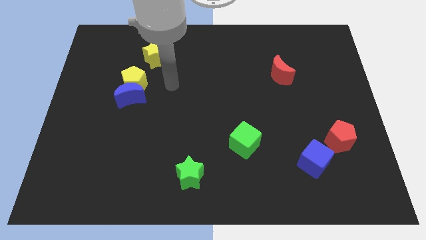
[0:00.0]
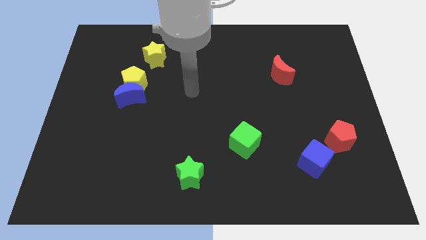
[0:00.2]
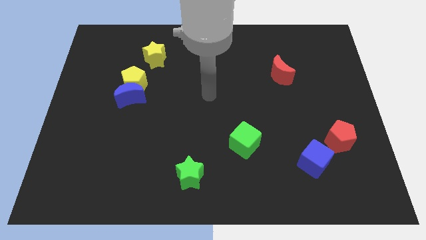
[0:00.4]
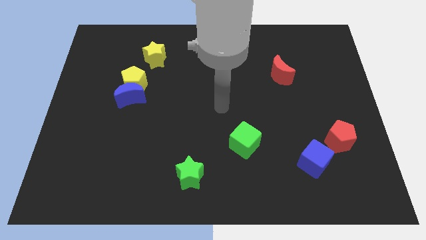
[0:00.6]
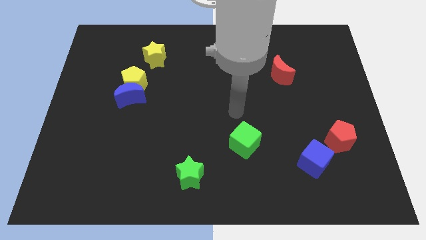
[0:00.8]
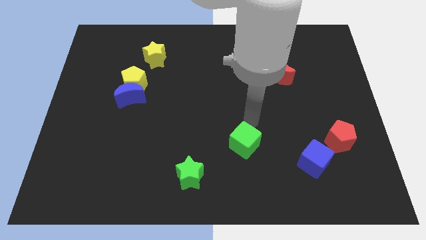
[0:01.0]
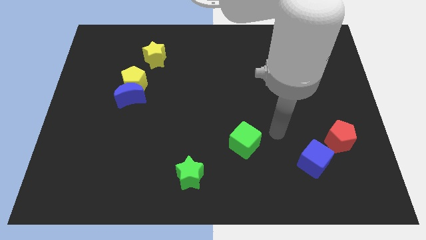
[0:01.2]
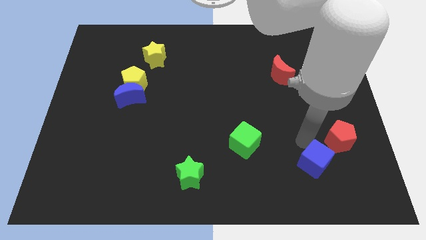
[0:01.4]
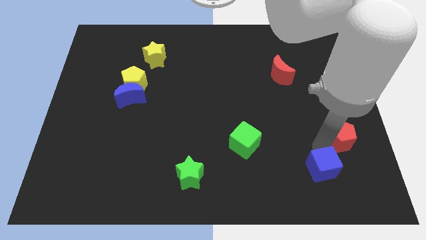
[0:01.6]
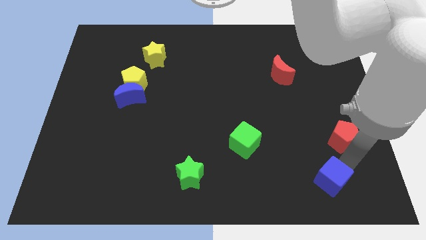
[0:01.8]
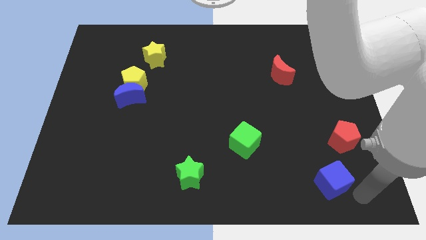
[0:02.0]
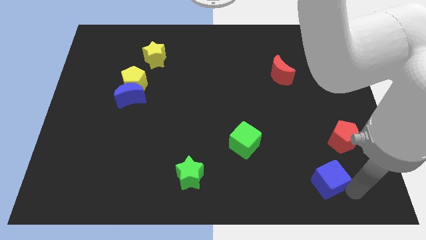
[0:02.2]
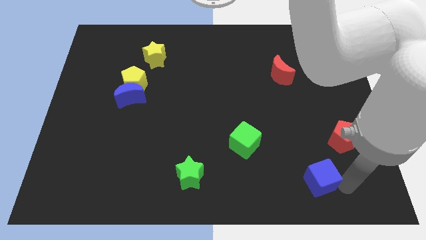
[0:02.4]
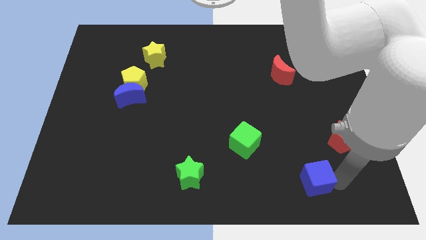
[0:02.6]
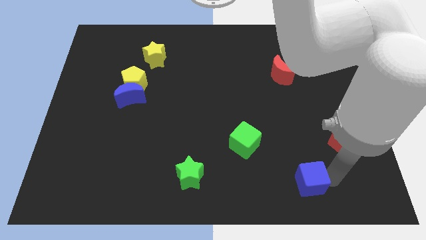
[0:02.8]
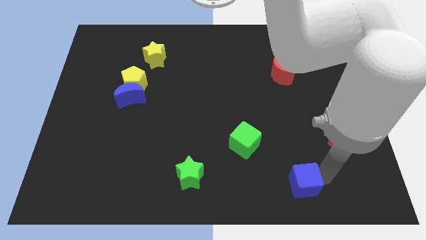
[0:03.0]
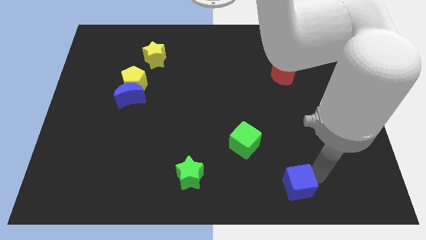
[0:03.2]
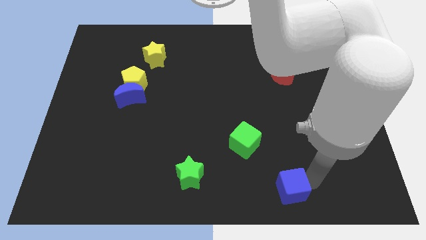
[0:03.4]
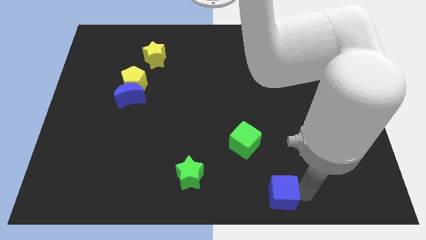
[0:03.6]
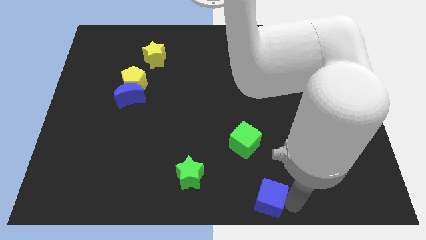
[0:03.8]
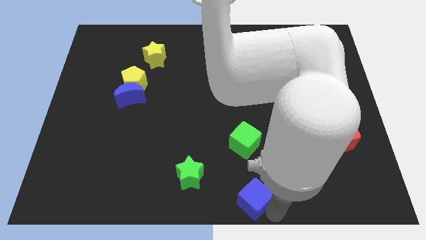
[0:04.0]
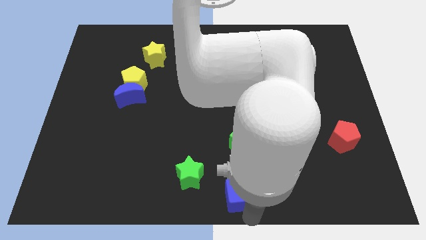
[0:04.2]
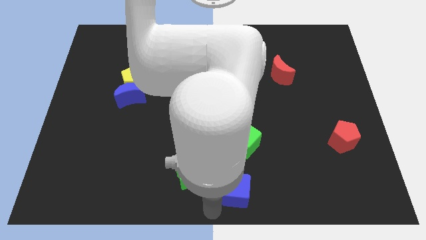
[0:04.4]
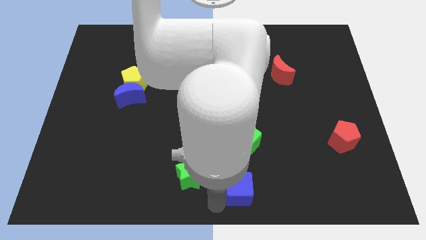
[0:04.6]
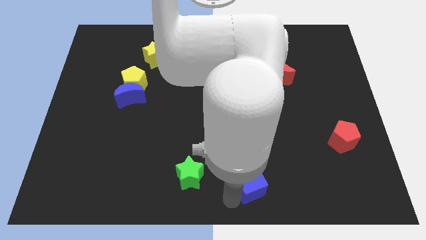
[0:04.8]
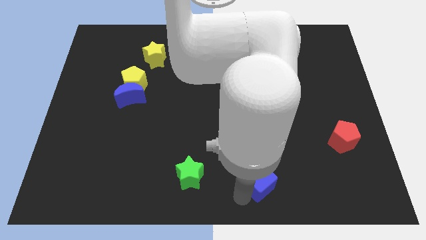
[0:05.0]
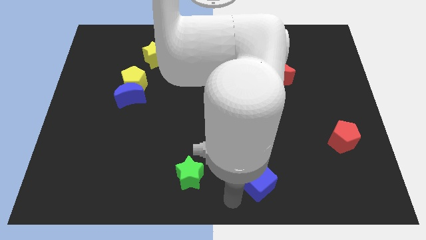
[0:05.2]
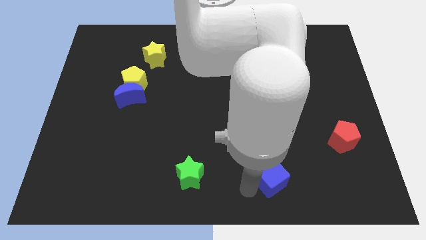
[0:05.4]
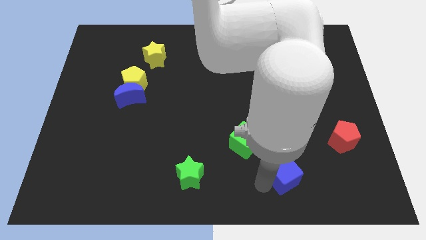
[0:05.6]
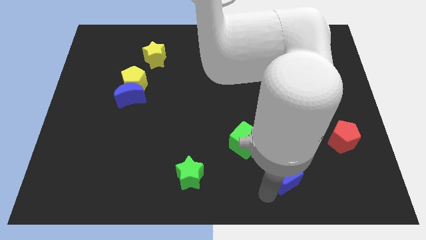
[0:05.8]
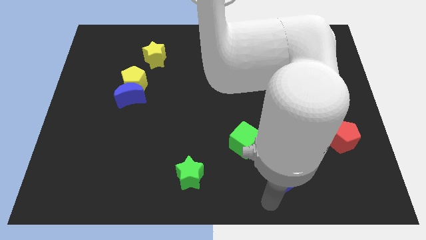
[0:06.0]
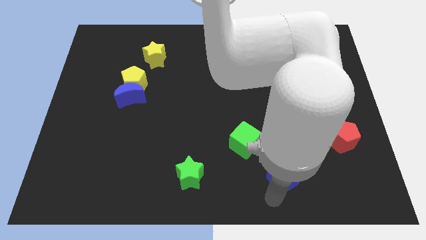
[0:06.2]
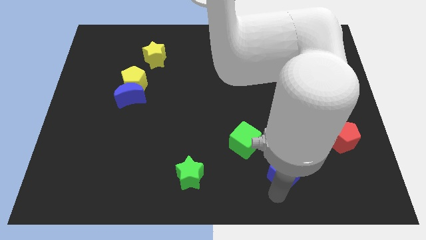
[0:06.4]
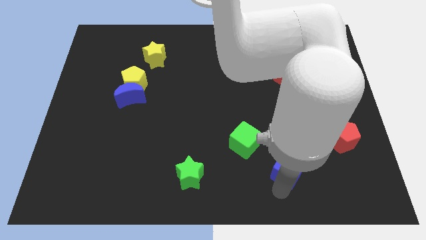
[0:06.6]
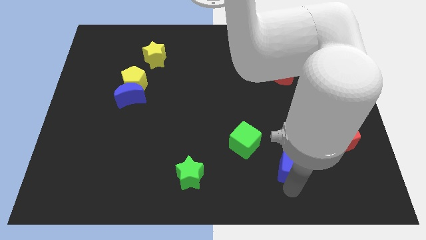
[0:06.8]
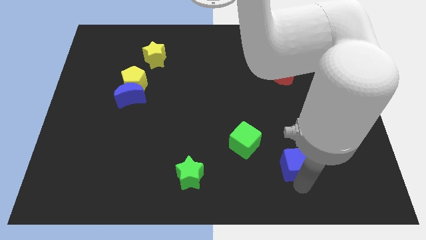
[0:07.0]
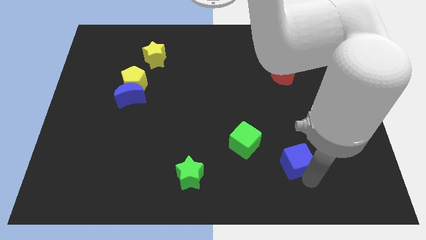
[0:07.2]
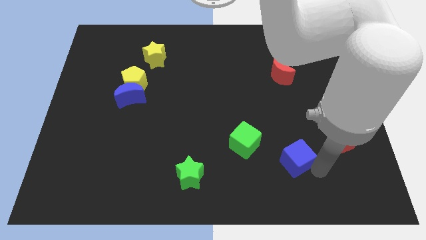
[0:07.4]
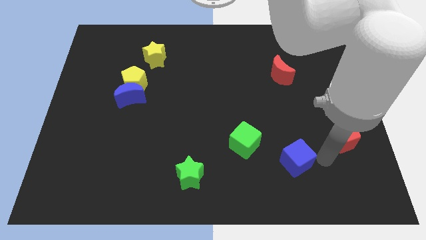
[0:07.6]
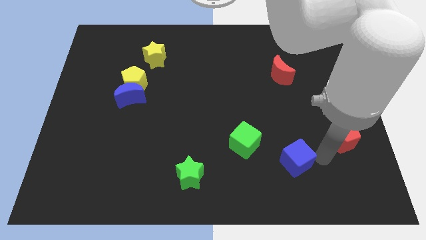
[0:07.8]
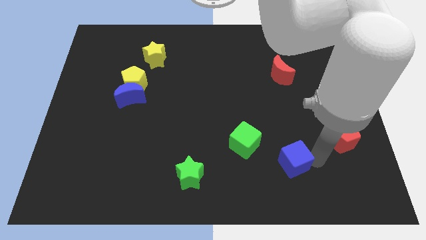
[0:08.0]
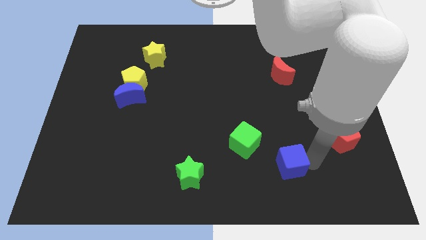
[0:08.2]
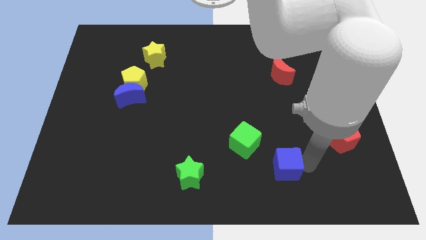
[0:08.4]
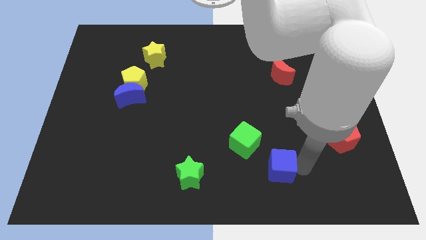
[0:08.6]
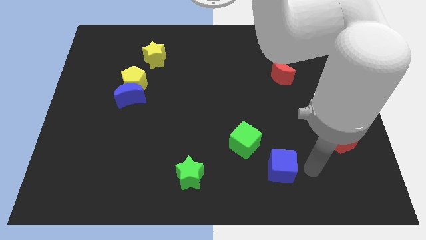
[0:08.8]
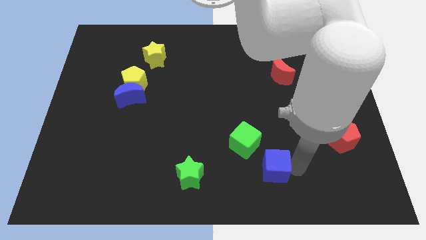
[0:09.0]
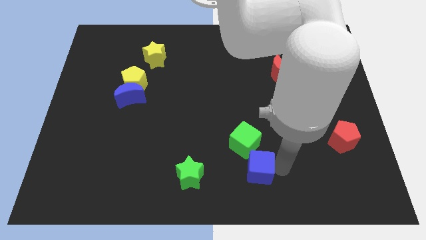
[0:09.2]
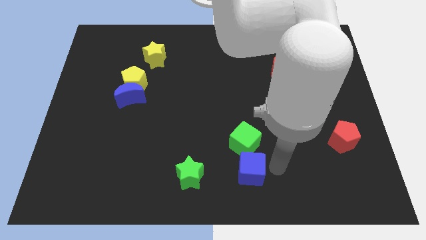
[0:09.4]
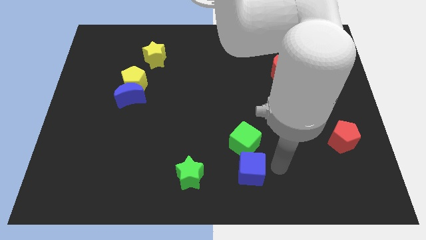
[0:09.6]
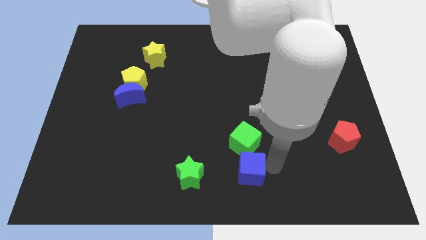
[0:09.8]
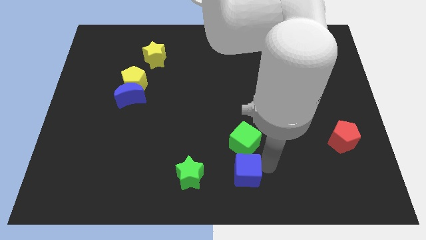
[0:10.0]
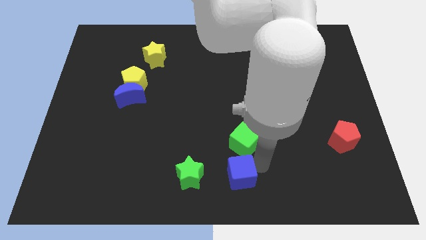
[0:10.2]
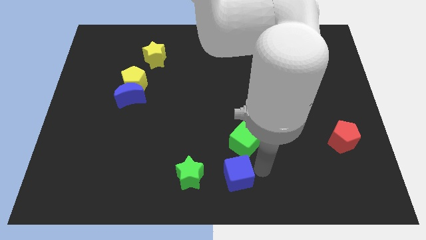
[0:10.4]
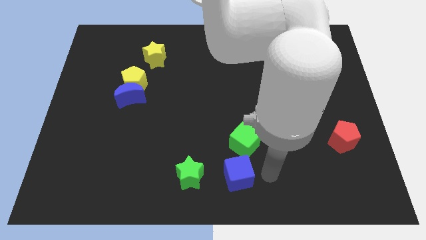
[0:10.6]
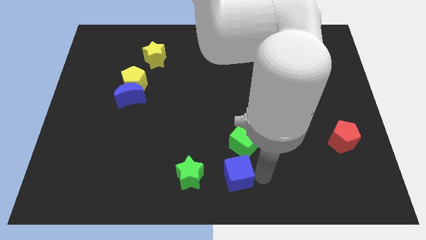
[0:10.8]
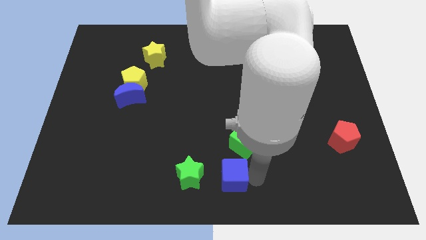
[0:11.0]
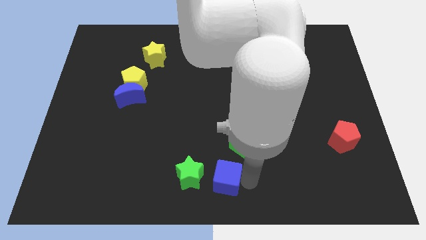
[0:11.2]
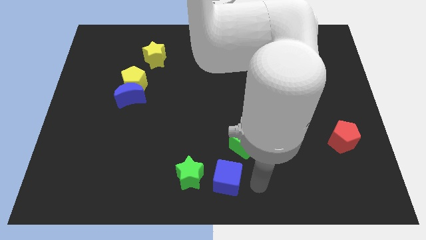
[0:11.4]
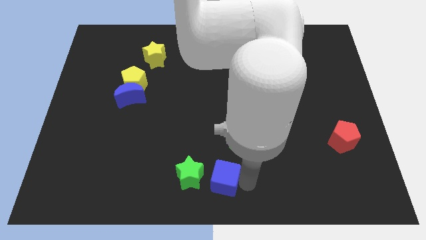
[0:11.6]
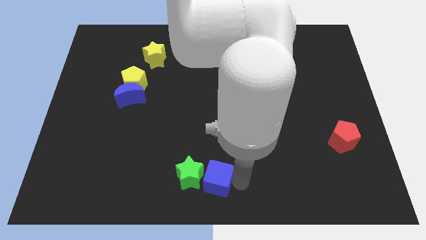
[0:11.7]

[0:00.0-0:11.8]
slide the blue cube towards the green star

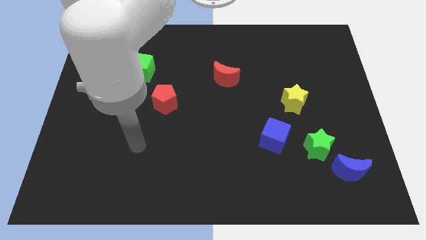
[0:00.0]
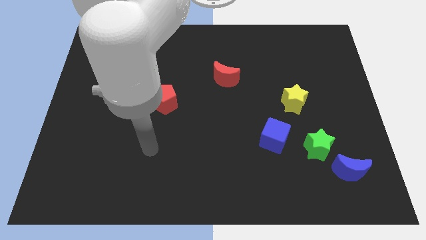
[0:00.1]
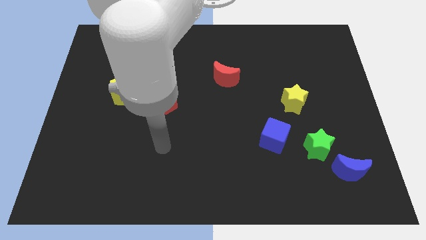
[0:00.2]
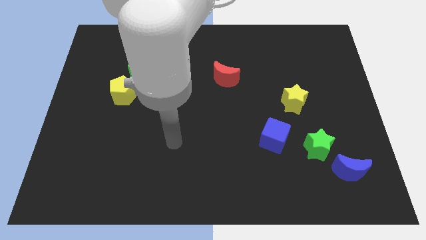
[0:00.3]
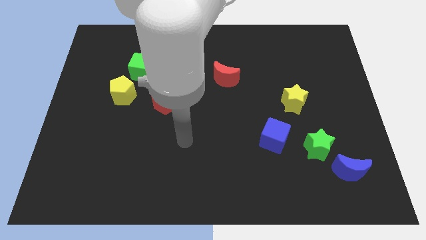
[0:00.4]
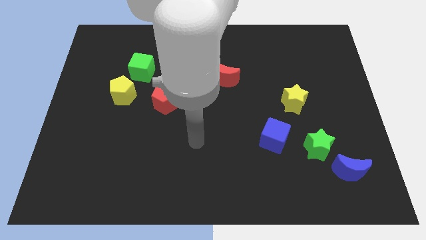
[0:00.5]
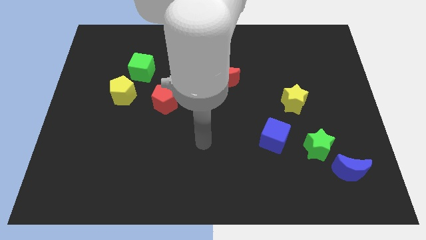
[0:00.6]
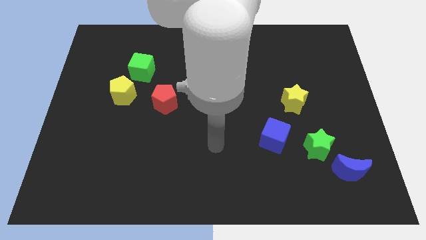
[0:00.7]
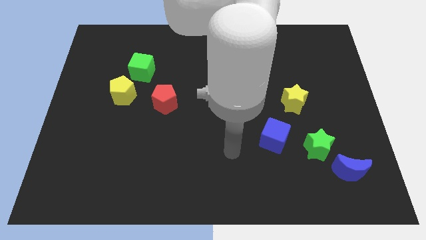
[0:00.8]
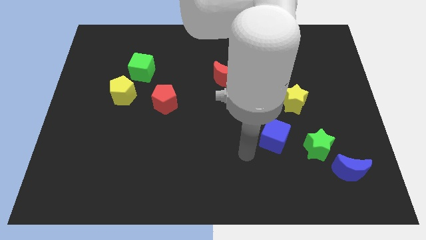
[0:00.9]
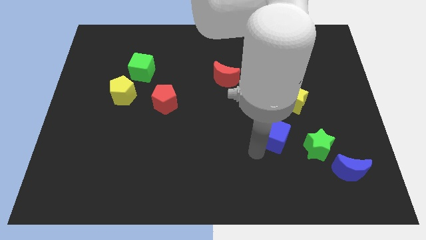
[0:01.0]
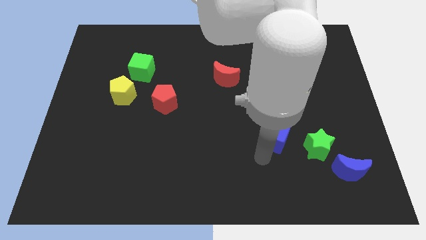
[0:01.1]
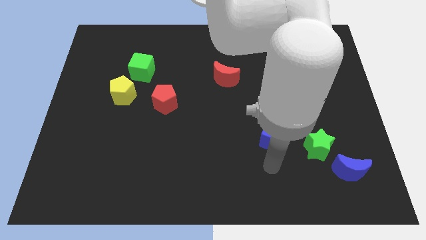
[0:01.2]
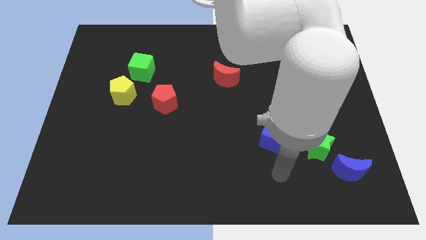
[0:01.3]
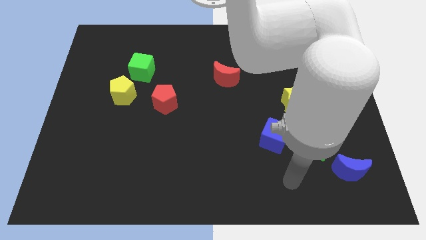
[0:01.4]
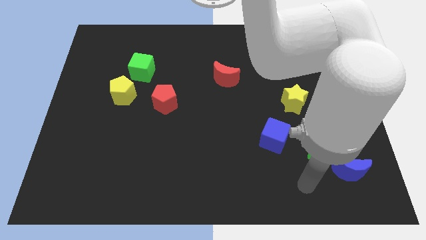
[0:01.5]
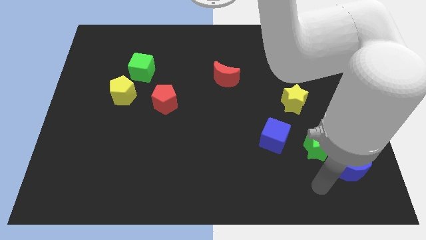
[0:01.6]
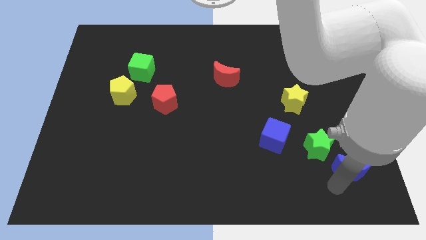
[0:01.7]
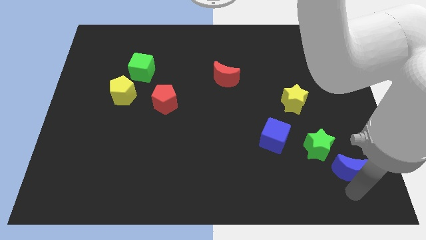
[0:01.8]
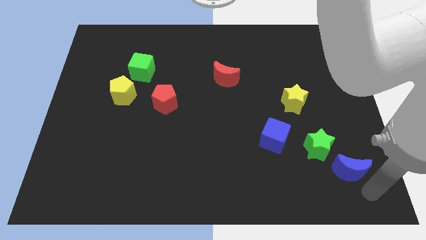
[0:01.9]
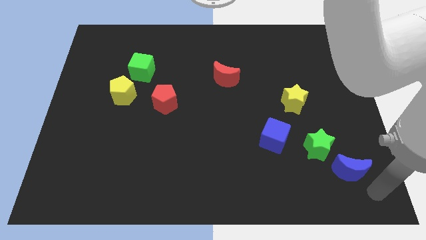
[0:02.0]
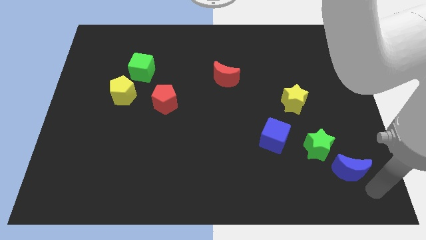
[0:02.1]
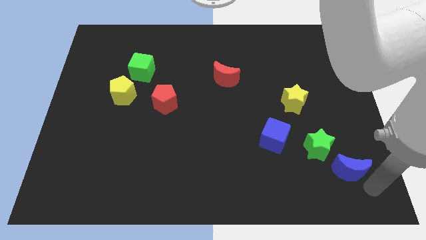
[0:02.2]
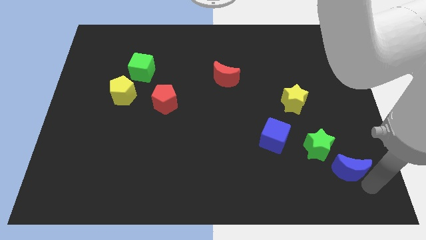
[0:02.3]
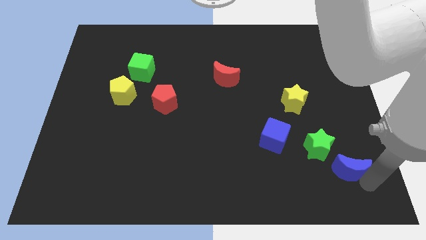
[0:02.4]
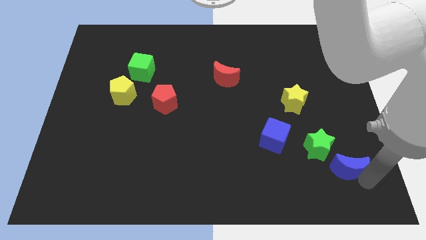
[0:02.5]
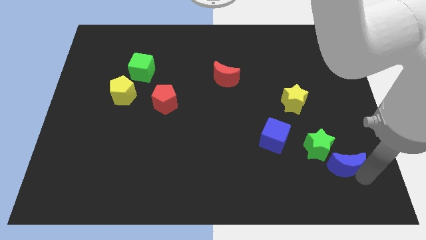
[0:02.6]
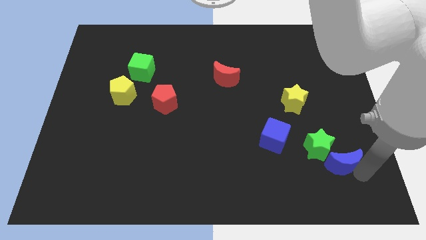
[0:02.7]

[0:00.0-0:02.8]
put the blue moon close to the green star
